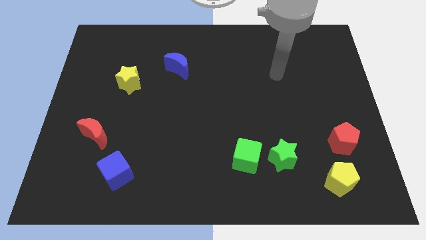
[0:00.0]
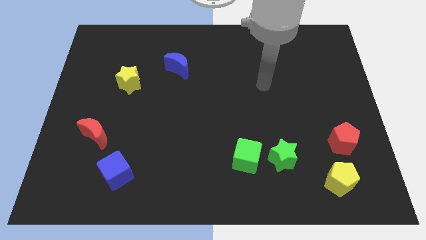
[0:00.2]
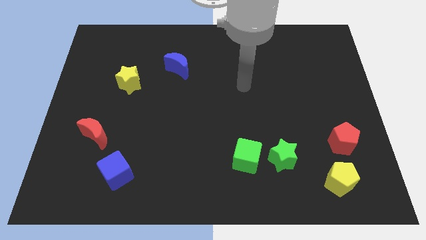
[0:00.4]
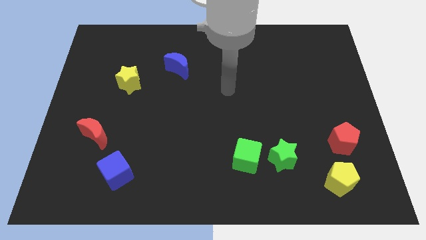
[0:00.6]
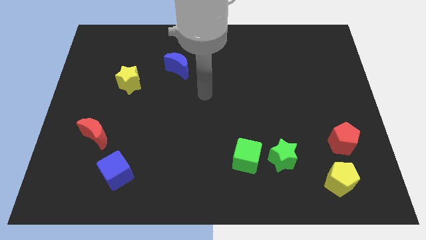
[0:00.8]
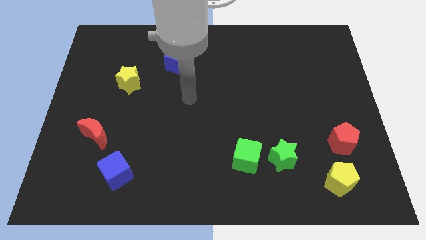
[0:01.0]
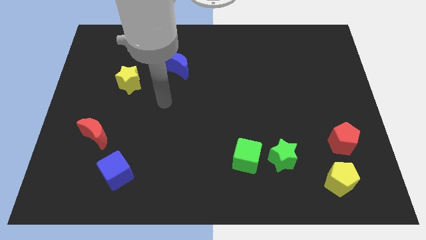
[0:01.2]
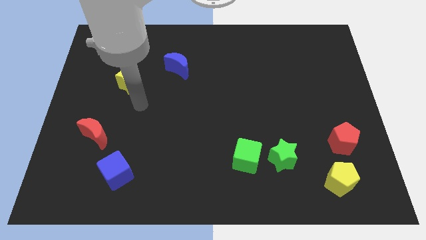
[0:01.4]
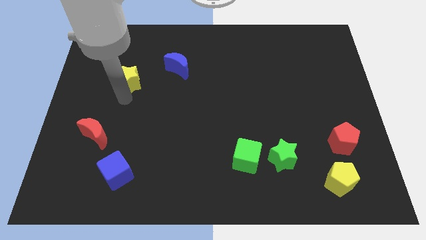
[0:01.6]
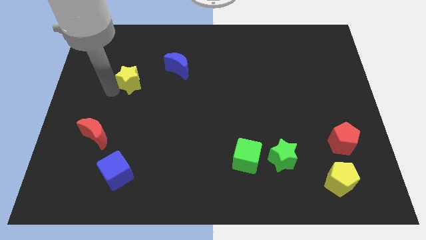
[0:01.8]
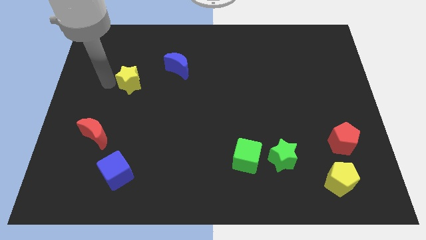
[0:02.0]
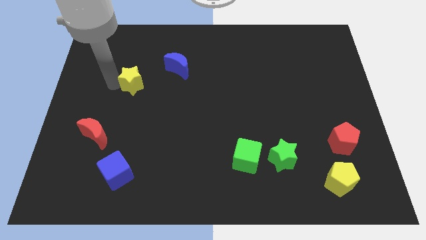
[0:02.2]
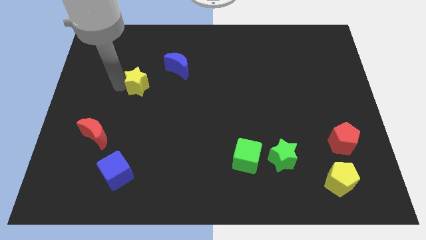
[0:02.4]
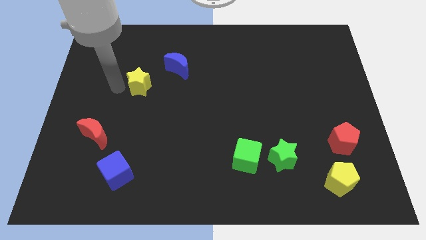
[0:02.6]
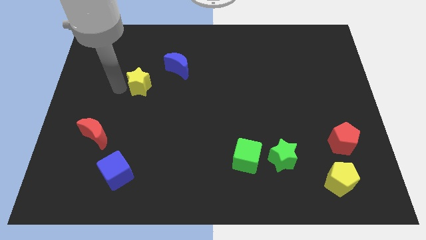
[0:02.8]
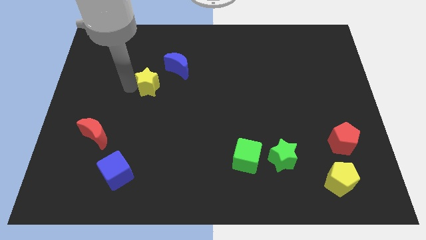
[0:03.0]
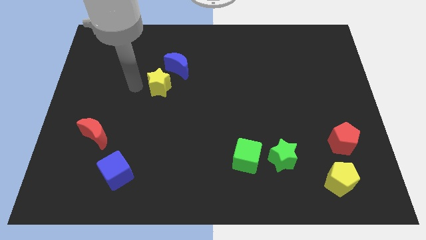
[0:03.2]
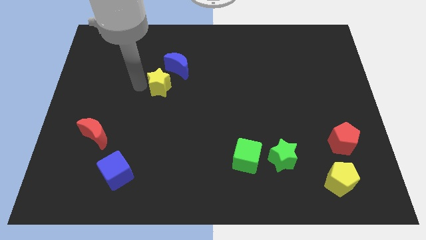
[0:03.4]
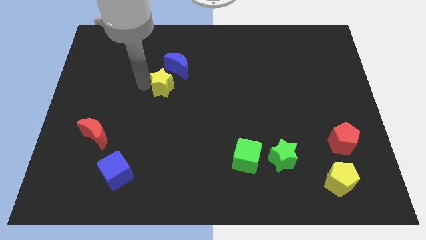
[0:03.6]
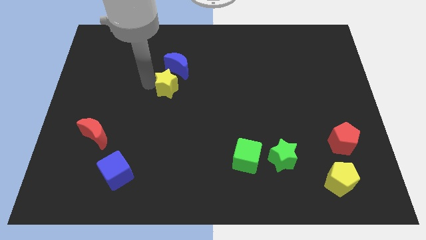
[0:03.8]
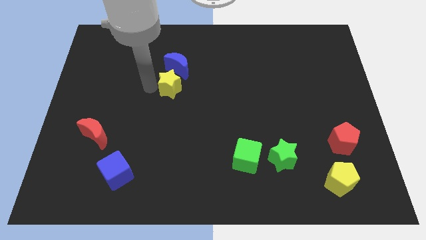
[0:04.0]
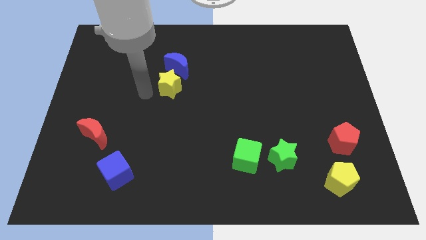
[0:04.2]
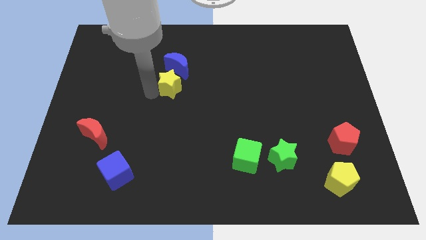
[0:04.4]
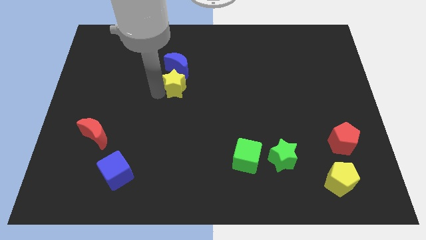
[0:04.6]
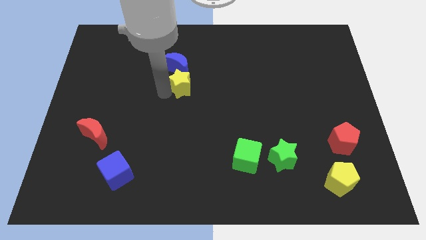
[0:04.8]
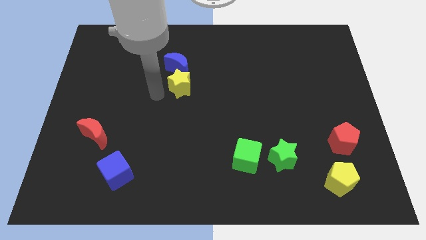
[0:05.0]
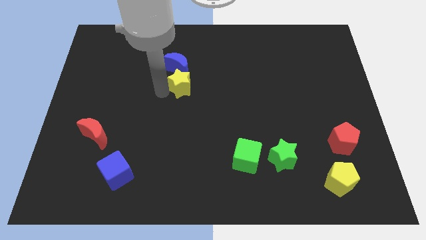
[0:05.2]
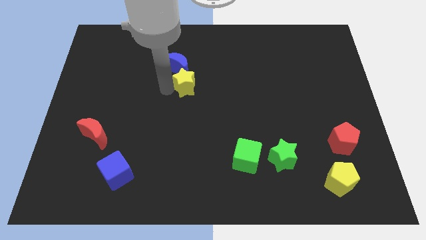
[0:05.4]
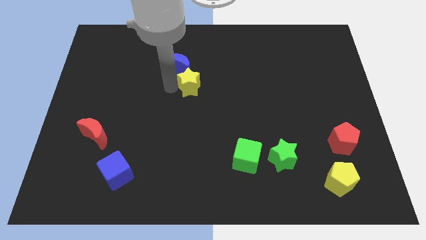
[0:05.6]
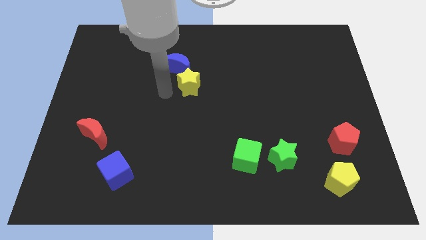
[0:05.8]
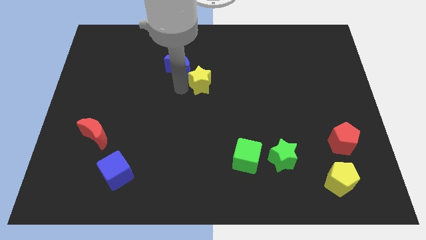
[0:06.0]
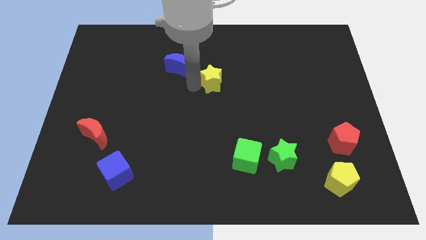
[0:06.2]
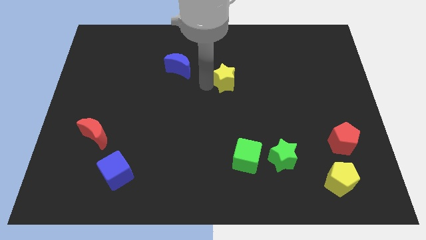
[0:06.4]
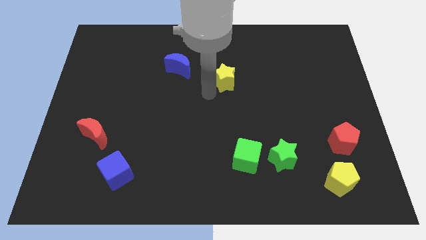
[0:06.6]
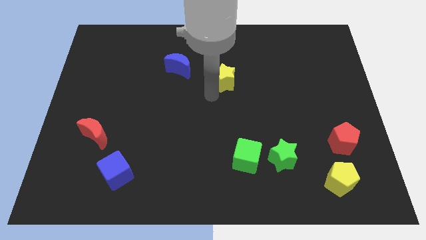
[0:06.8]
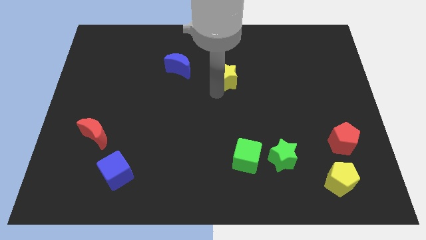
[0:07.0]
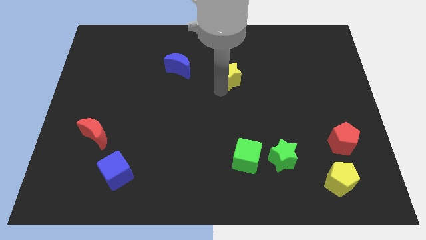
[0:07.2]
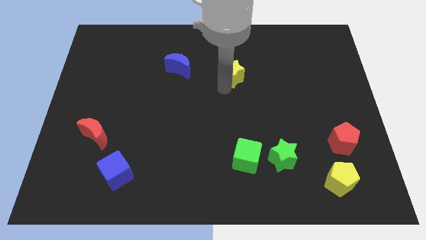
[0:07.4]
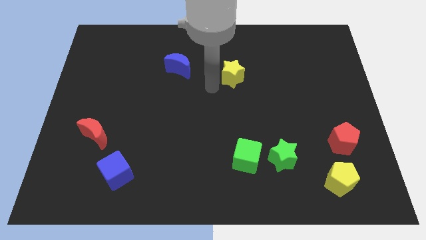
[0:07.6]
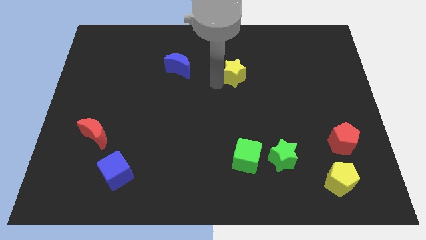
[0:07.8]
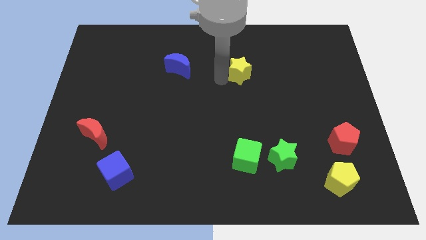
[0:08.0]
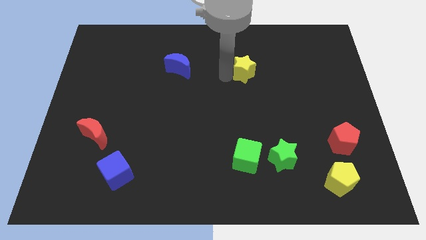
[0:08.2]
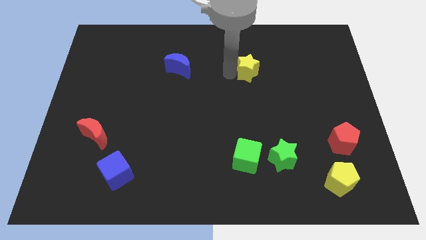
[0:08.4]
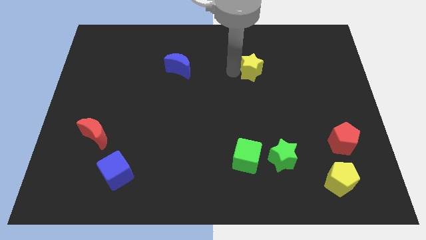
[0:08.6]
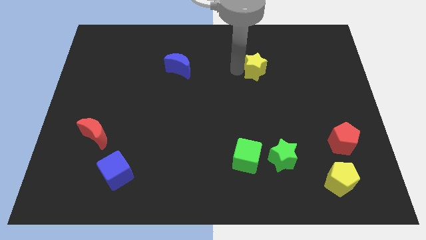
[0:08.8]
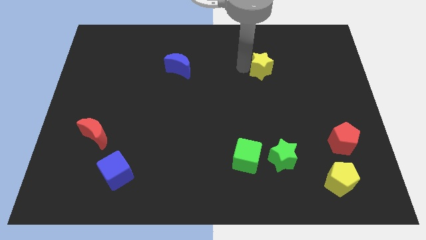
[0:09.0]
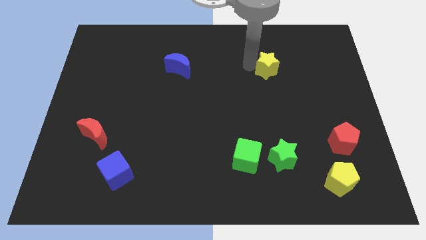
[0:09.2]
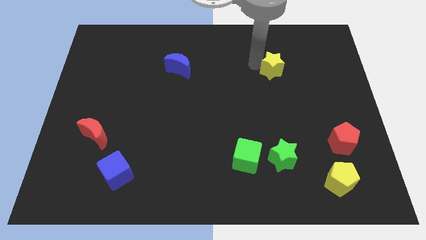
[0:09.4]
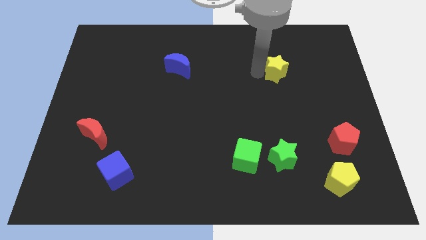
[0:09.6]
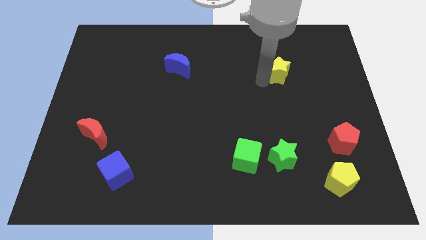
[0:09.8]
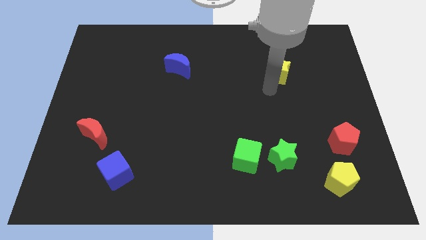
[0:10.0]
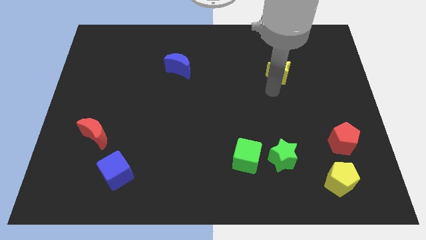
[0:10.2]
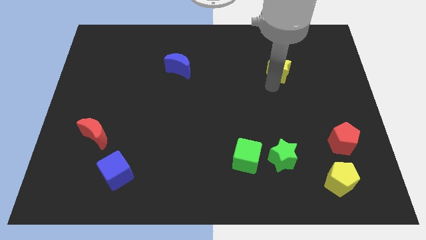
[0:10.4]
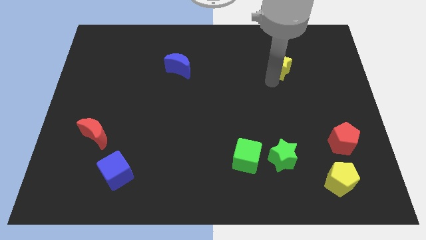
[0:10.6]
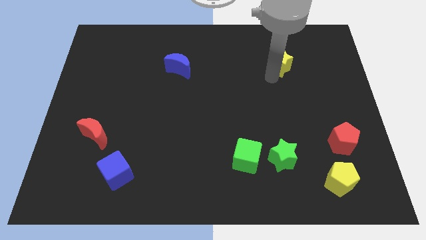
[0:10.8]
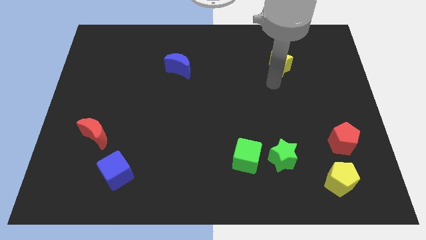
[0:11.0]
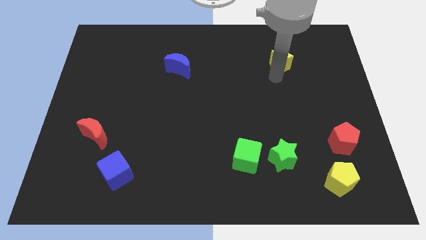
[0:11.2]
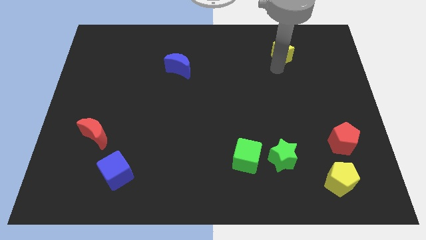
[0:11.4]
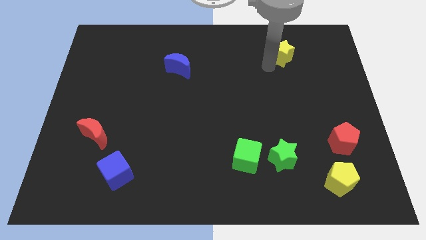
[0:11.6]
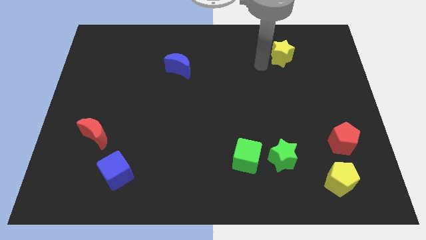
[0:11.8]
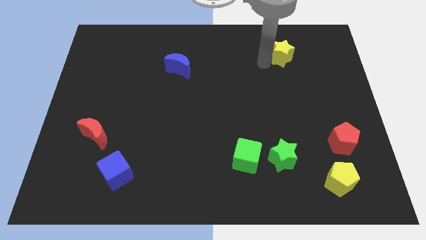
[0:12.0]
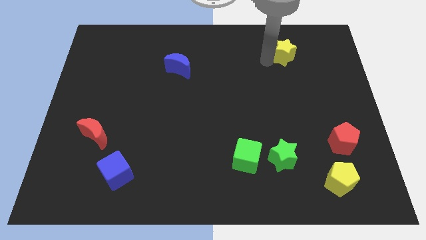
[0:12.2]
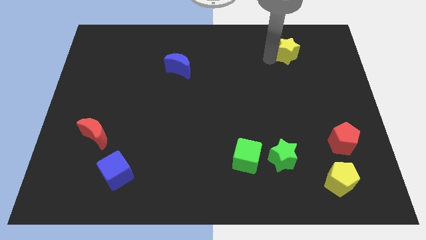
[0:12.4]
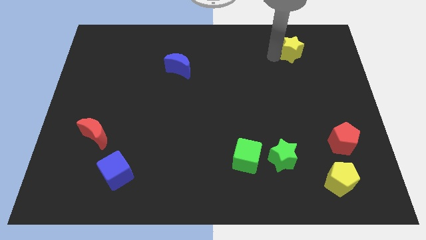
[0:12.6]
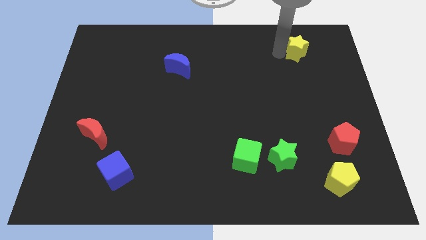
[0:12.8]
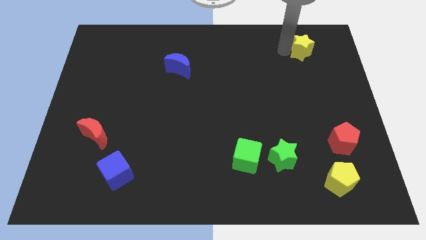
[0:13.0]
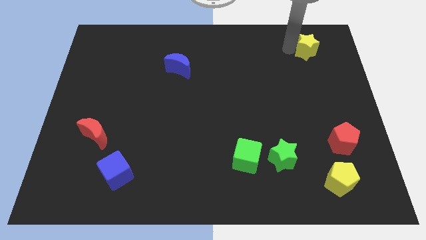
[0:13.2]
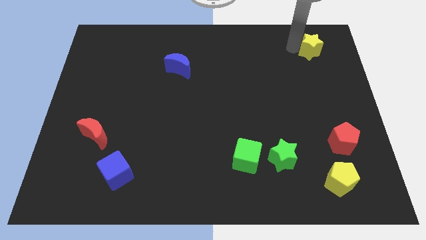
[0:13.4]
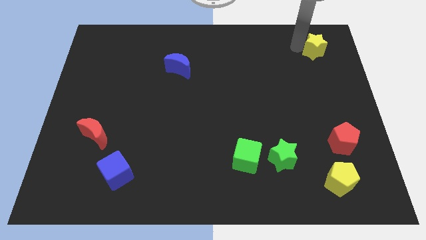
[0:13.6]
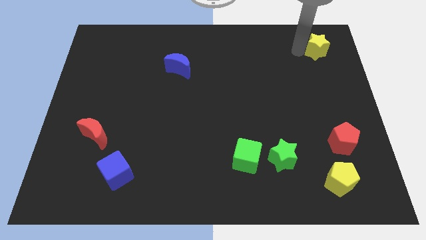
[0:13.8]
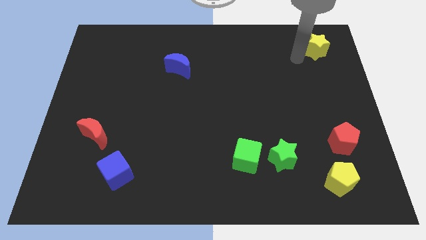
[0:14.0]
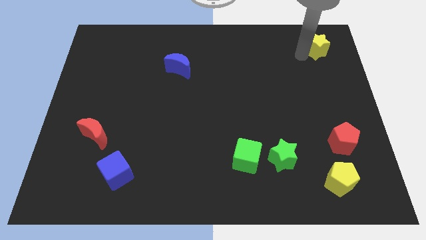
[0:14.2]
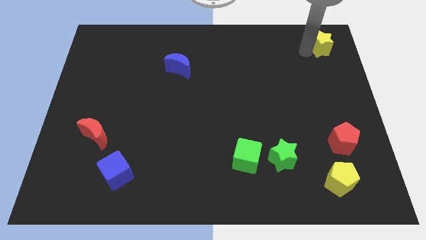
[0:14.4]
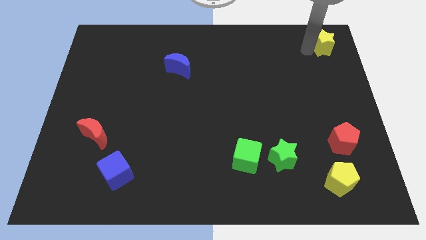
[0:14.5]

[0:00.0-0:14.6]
slide the yellow star to the upper right corner
